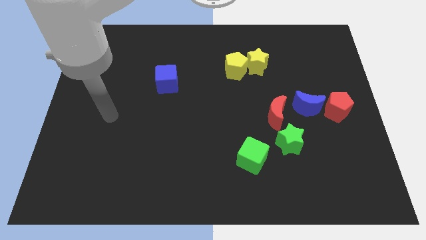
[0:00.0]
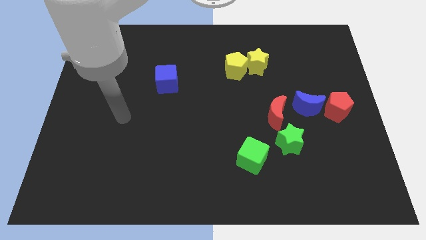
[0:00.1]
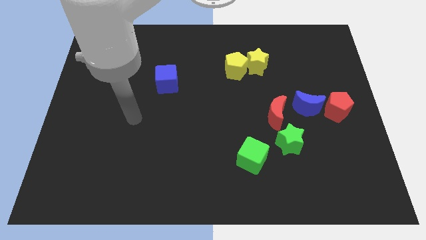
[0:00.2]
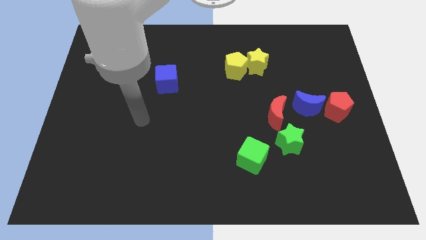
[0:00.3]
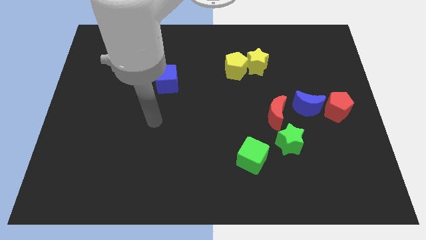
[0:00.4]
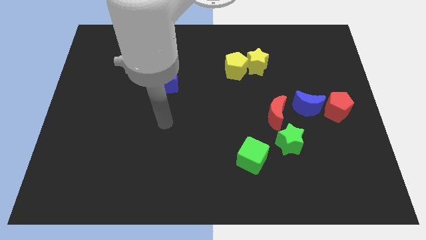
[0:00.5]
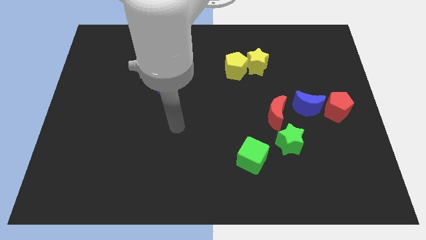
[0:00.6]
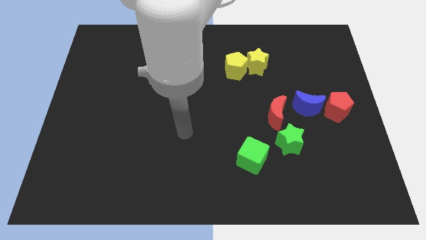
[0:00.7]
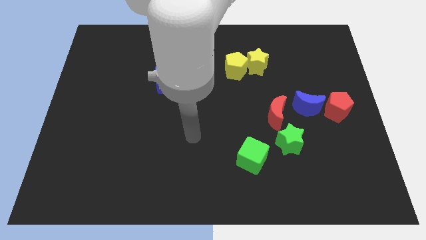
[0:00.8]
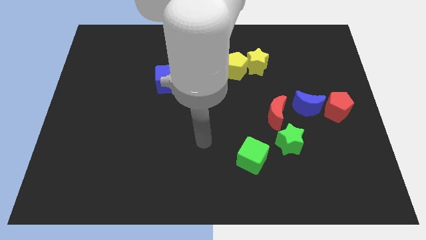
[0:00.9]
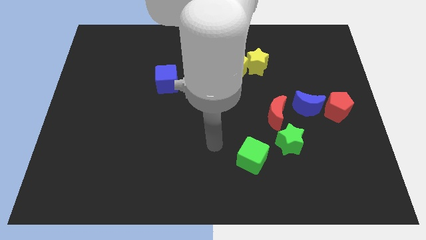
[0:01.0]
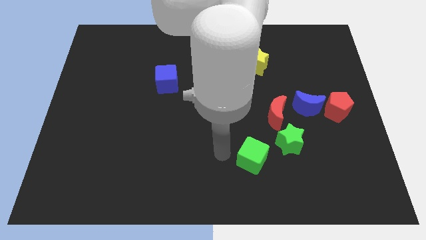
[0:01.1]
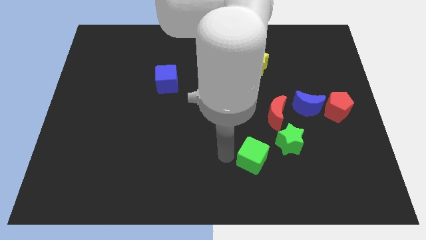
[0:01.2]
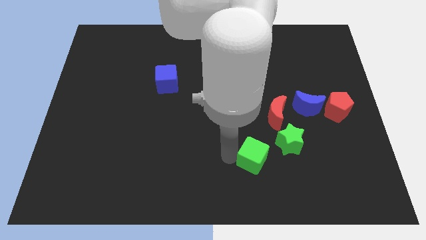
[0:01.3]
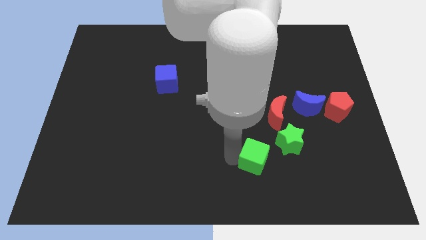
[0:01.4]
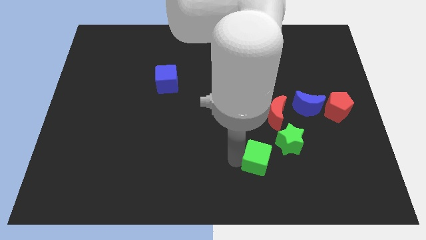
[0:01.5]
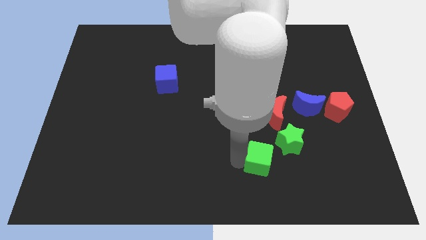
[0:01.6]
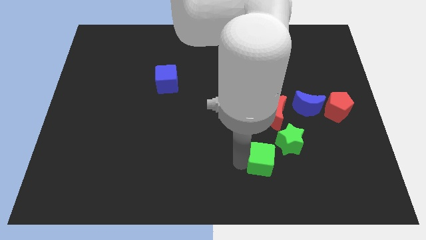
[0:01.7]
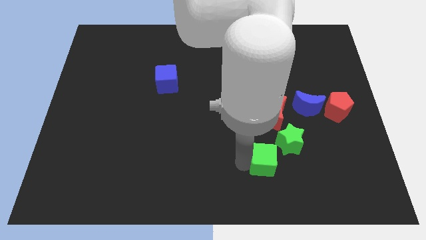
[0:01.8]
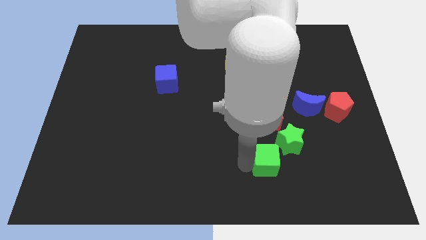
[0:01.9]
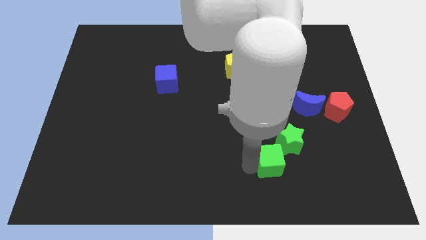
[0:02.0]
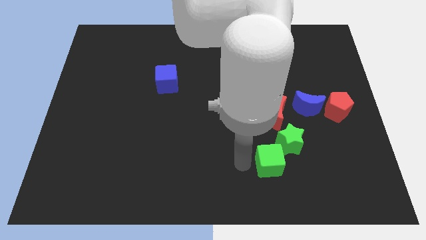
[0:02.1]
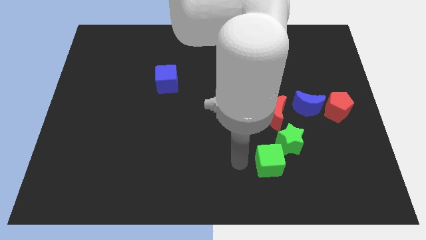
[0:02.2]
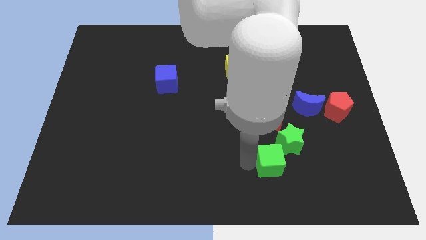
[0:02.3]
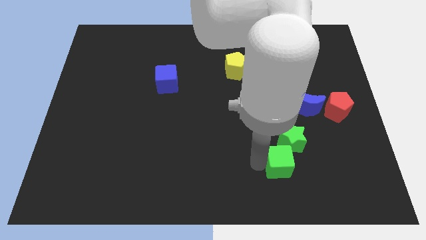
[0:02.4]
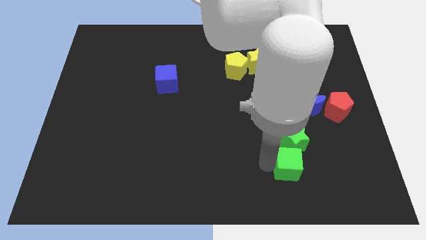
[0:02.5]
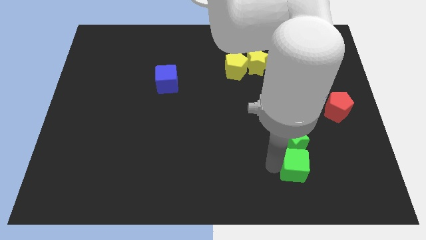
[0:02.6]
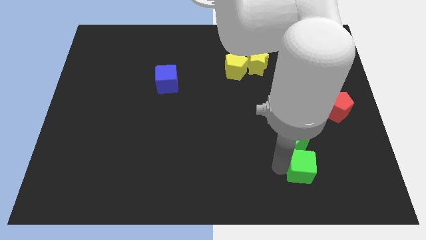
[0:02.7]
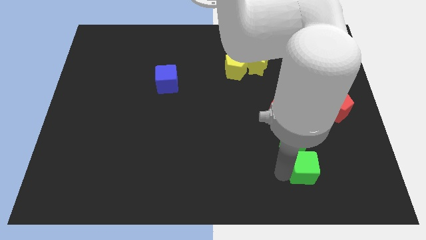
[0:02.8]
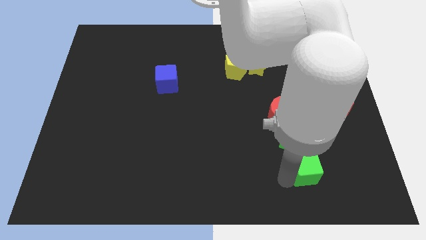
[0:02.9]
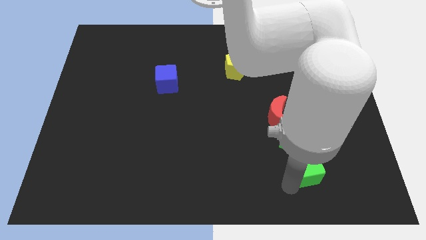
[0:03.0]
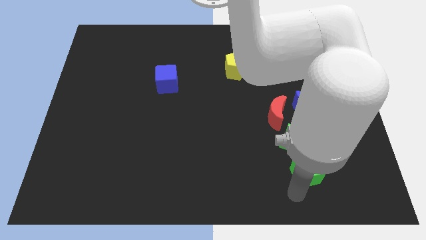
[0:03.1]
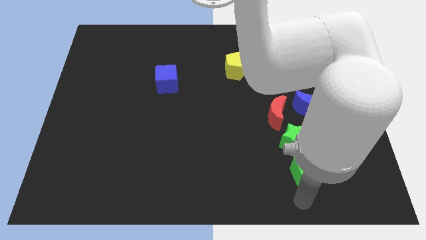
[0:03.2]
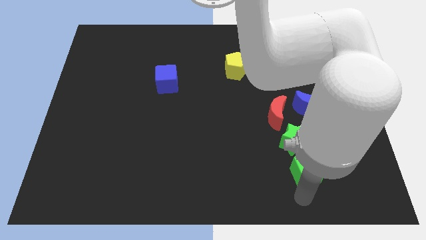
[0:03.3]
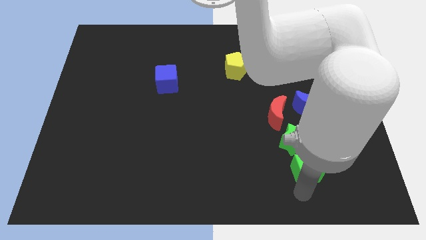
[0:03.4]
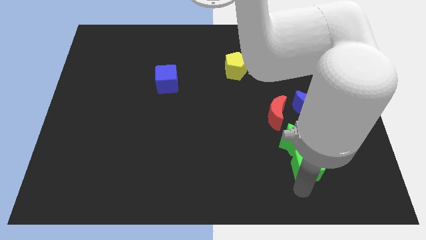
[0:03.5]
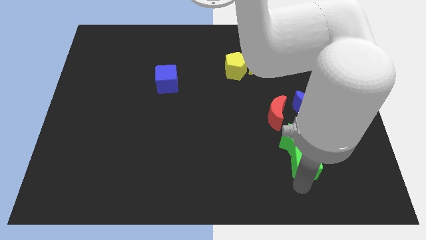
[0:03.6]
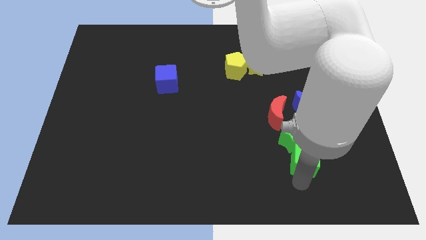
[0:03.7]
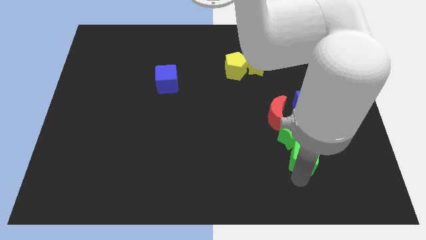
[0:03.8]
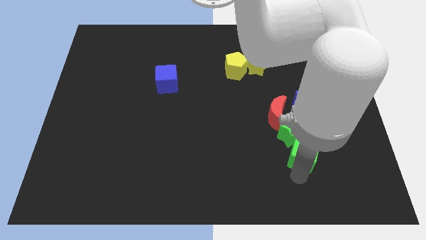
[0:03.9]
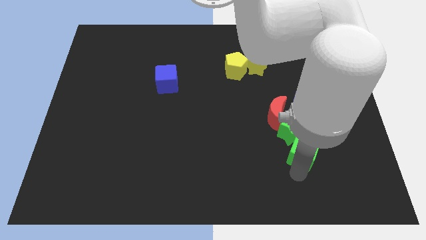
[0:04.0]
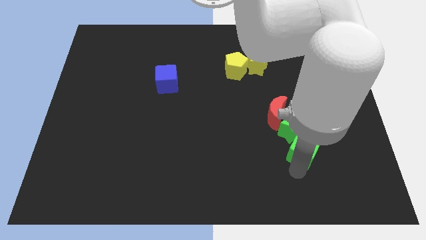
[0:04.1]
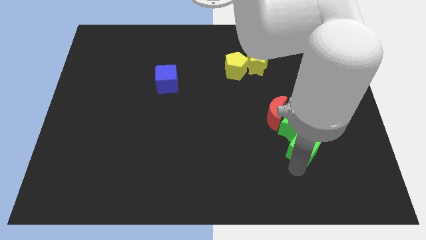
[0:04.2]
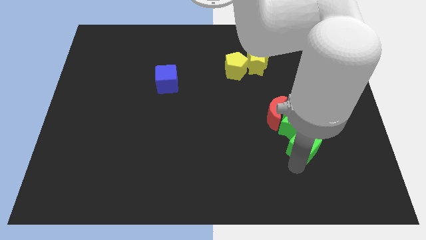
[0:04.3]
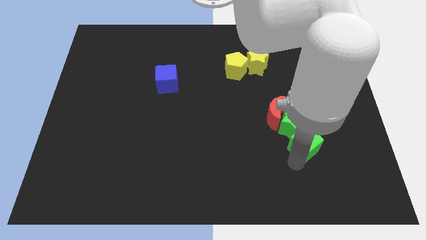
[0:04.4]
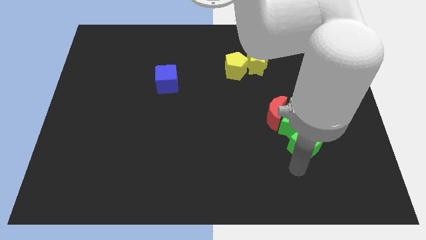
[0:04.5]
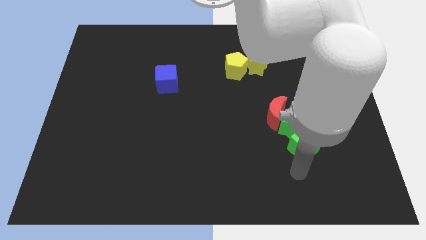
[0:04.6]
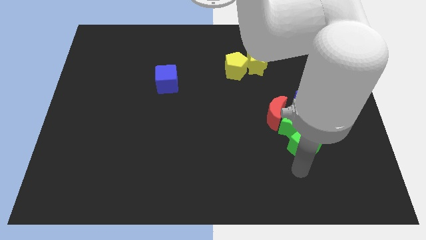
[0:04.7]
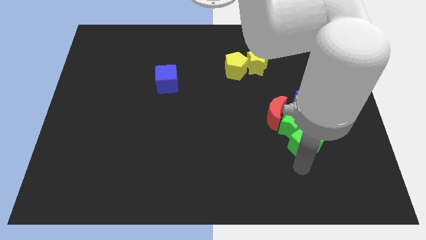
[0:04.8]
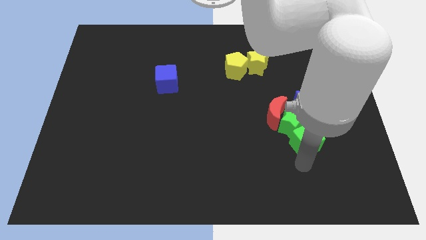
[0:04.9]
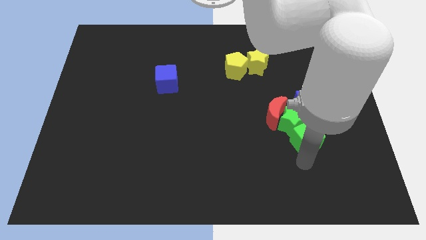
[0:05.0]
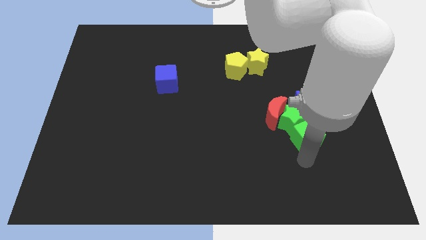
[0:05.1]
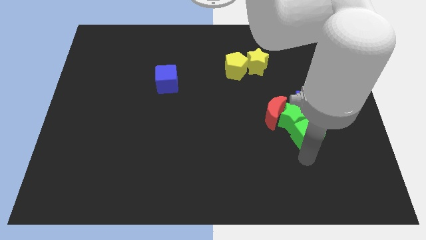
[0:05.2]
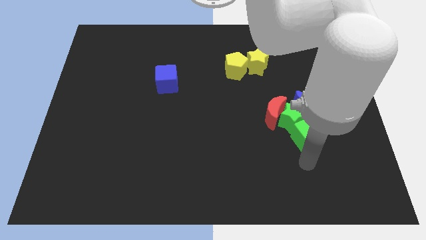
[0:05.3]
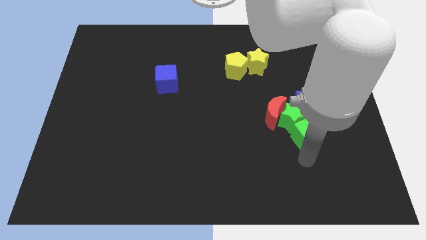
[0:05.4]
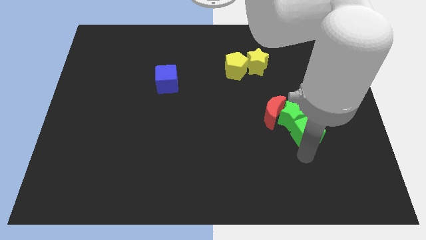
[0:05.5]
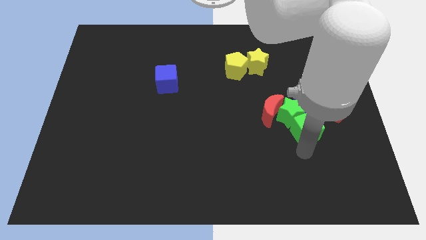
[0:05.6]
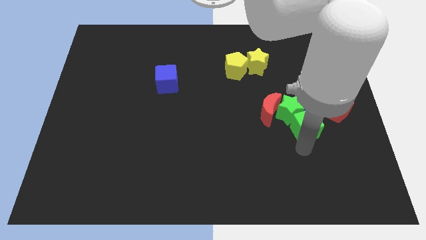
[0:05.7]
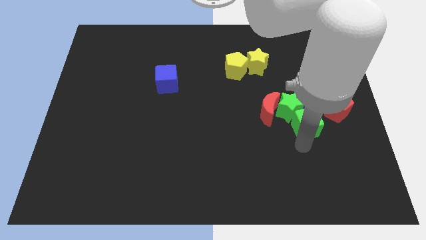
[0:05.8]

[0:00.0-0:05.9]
move the green cube to the blue moon
